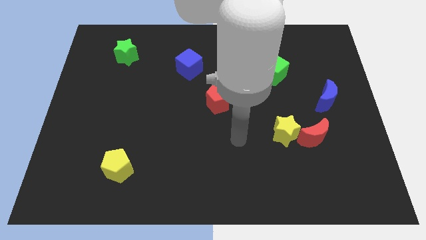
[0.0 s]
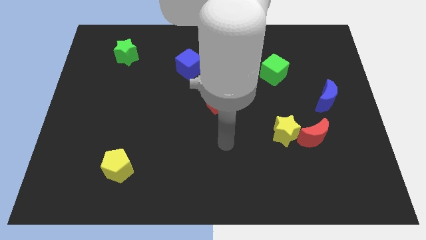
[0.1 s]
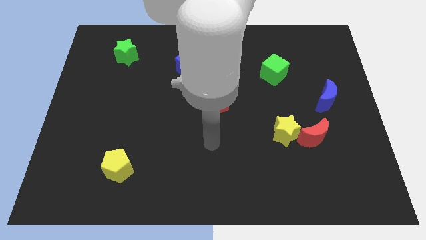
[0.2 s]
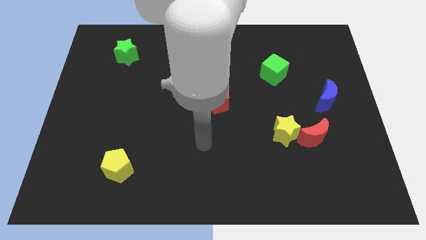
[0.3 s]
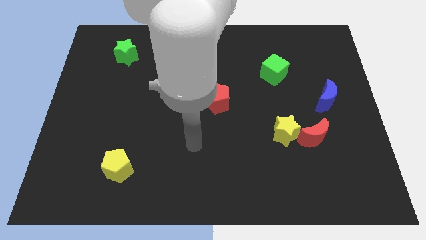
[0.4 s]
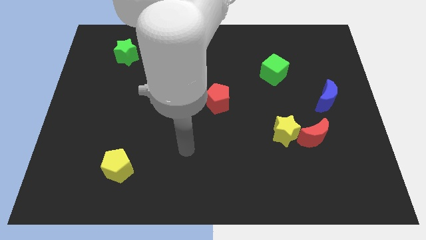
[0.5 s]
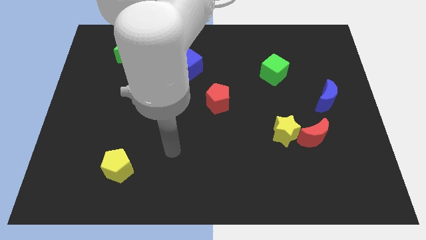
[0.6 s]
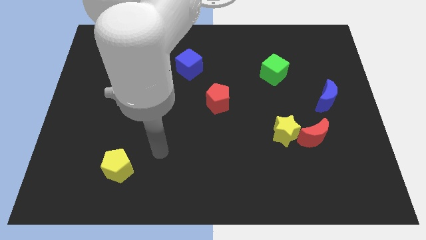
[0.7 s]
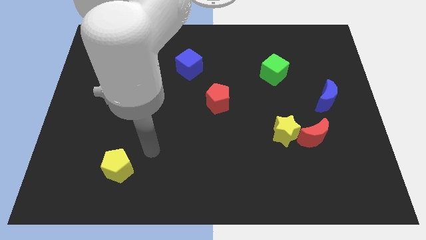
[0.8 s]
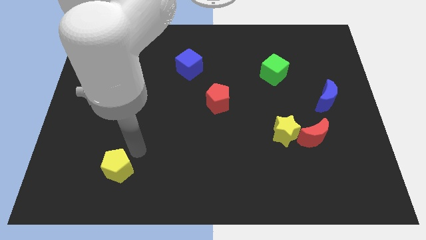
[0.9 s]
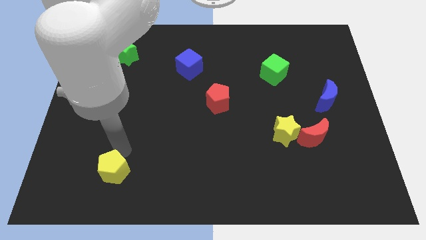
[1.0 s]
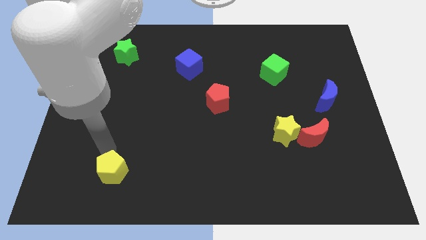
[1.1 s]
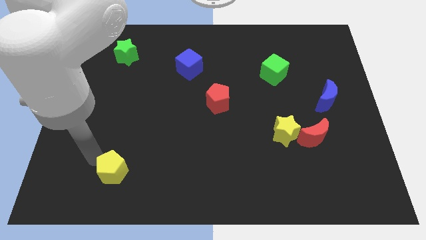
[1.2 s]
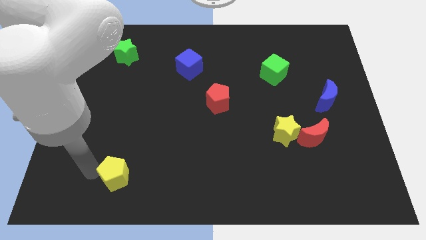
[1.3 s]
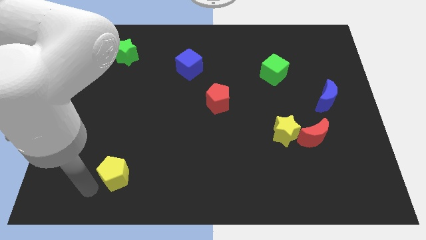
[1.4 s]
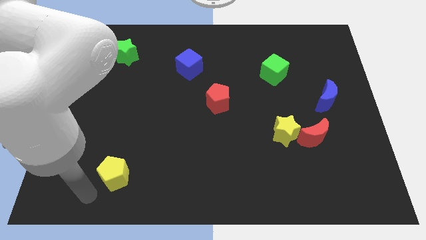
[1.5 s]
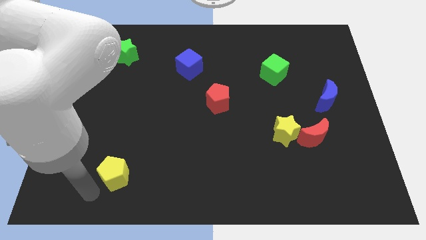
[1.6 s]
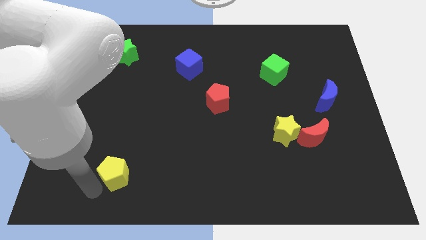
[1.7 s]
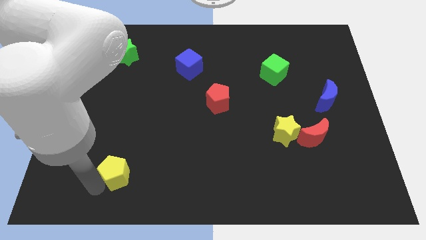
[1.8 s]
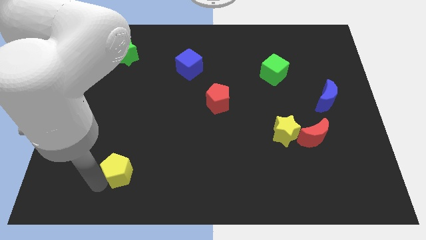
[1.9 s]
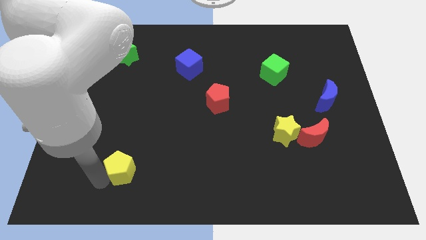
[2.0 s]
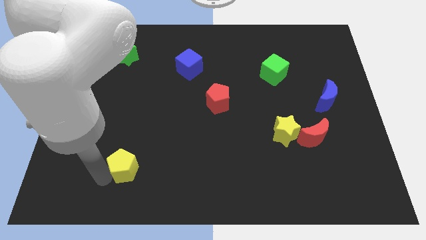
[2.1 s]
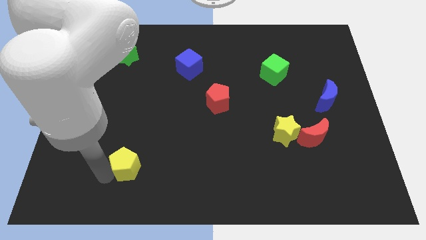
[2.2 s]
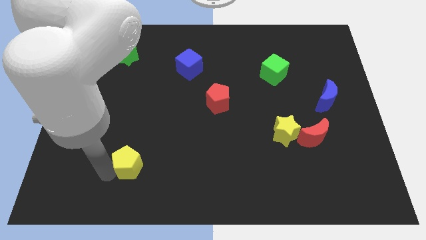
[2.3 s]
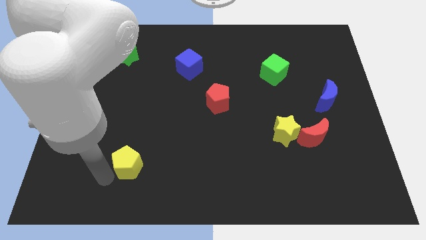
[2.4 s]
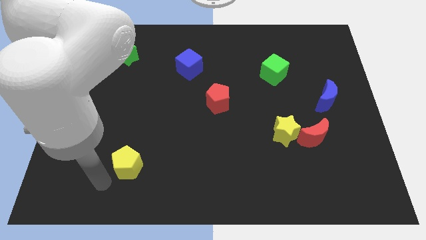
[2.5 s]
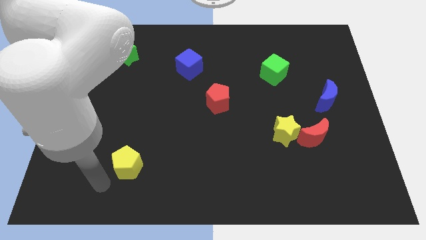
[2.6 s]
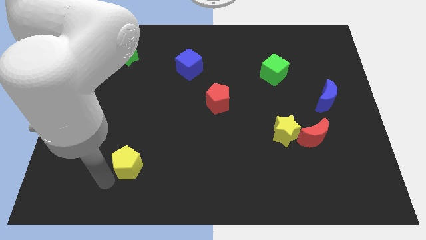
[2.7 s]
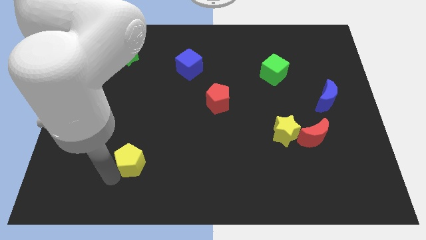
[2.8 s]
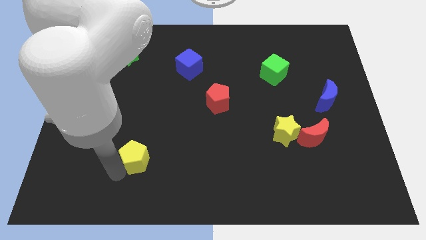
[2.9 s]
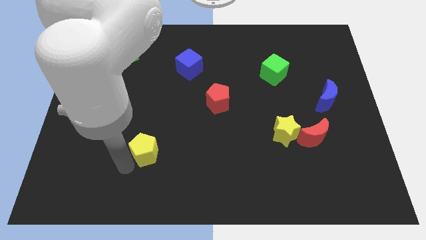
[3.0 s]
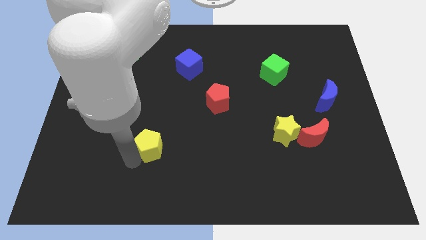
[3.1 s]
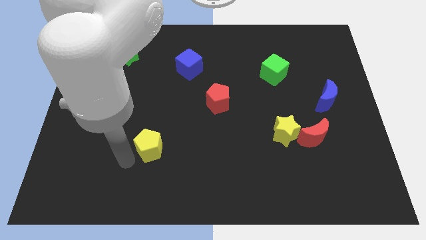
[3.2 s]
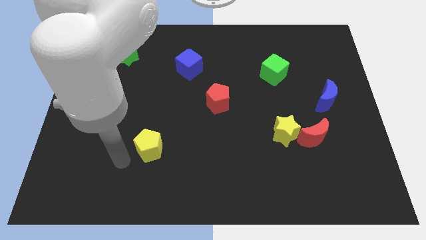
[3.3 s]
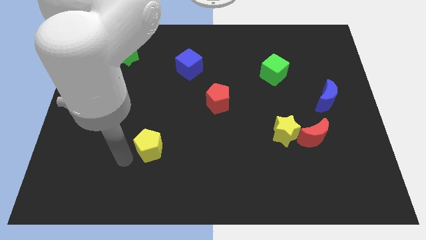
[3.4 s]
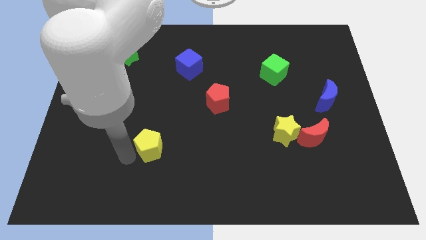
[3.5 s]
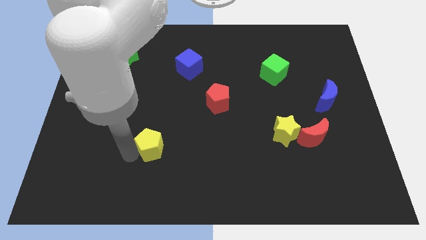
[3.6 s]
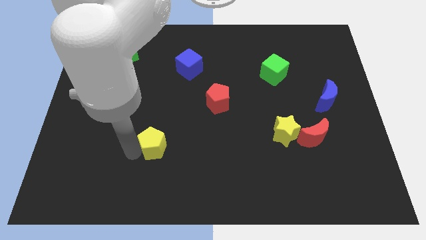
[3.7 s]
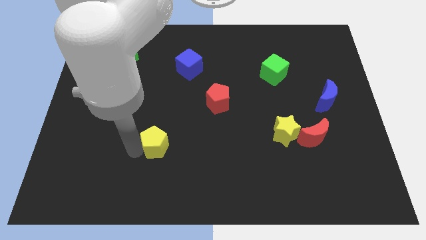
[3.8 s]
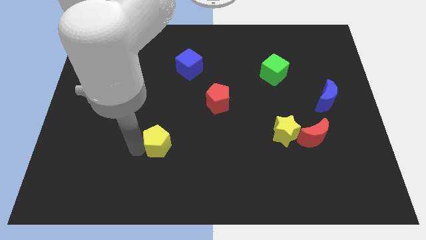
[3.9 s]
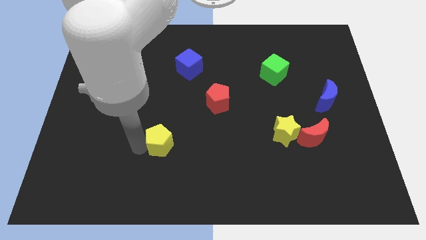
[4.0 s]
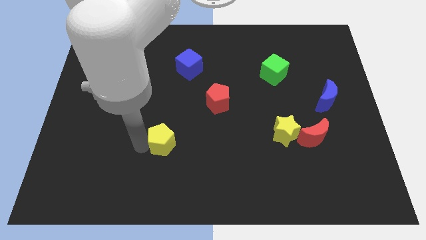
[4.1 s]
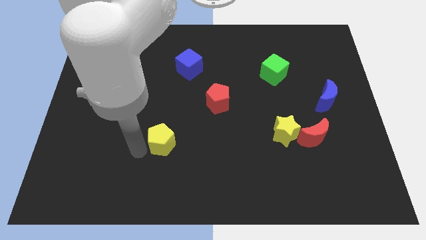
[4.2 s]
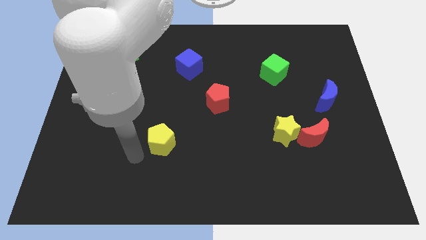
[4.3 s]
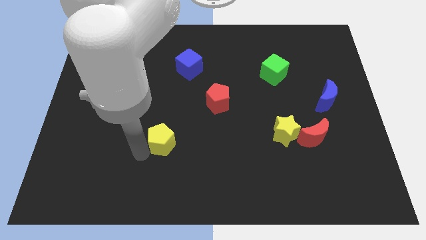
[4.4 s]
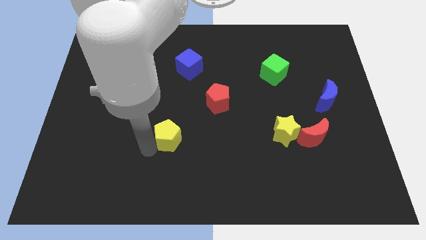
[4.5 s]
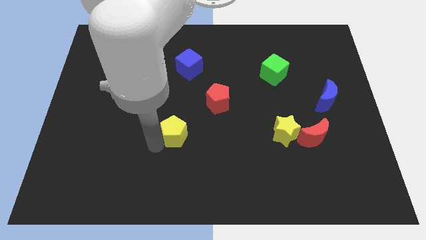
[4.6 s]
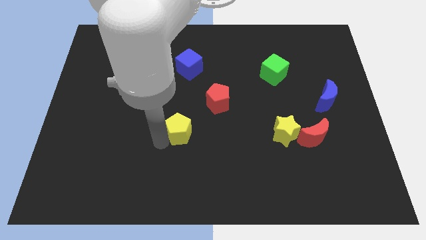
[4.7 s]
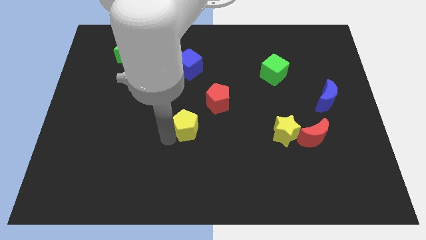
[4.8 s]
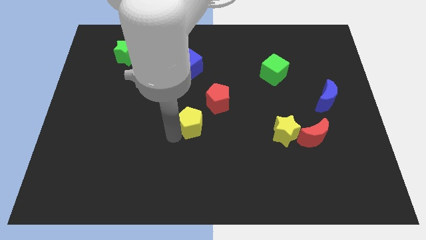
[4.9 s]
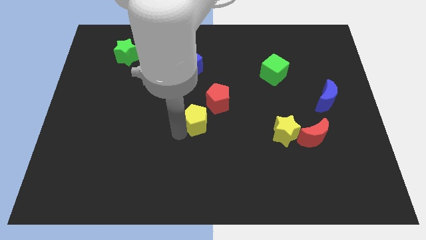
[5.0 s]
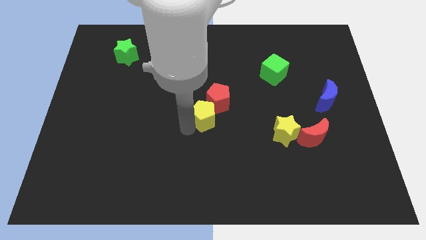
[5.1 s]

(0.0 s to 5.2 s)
put the yellow pentagon to the red pentagon

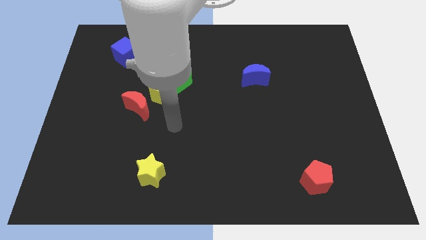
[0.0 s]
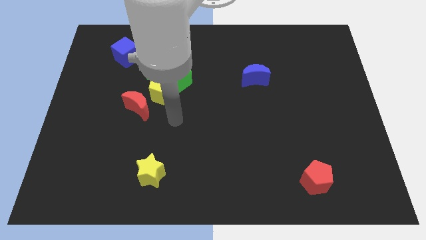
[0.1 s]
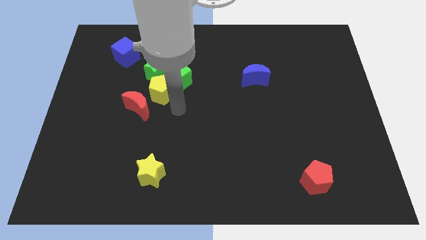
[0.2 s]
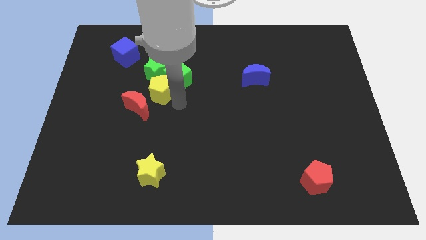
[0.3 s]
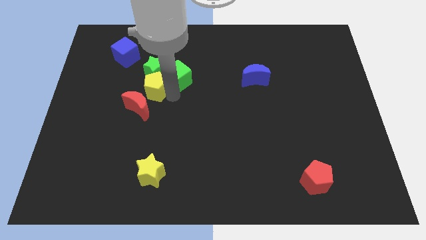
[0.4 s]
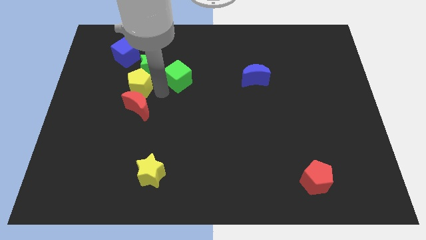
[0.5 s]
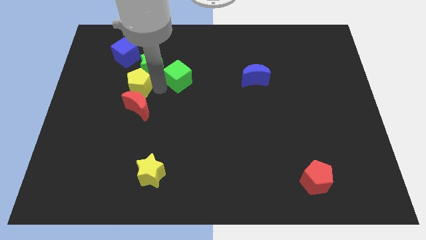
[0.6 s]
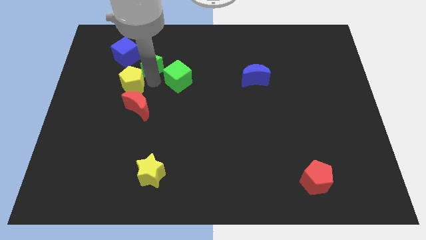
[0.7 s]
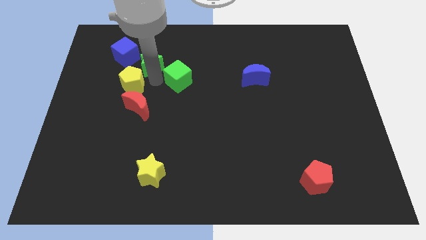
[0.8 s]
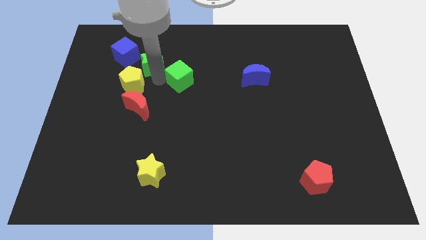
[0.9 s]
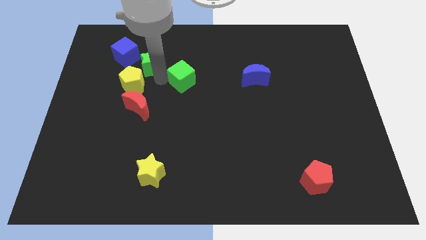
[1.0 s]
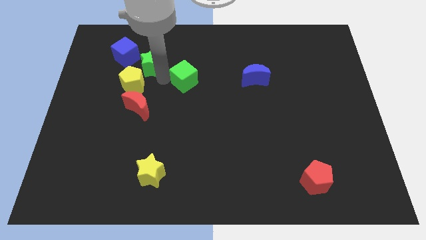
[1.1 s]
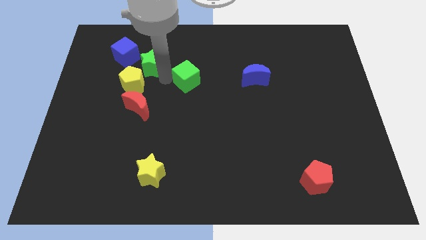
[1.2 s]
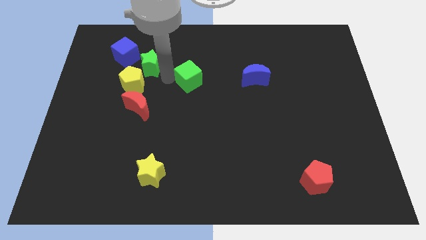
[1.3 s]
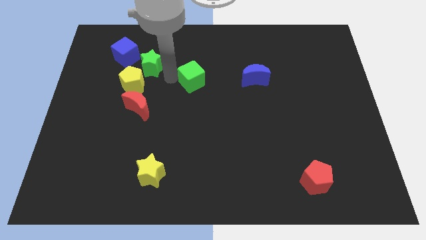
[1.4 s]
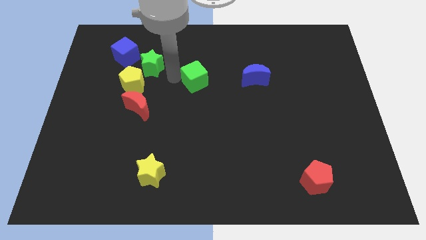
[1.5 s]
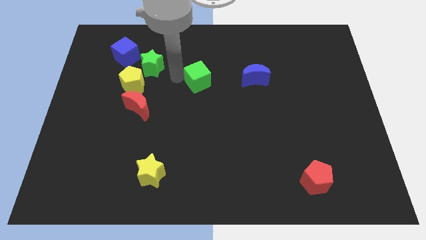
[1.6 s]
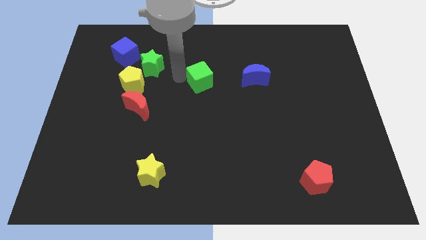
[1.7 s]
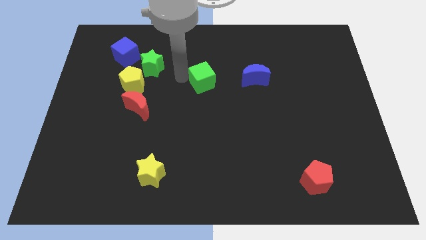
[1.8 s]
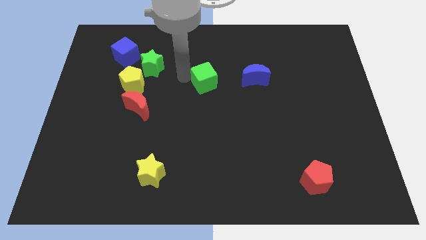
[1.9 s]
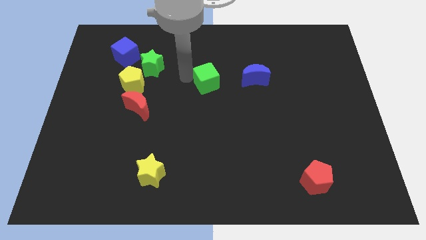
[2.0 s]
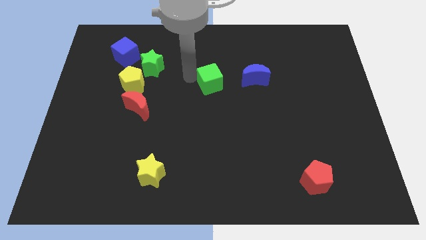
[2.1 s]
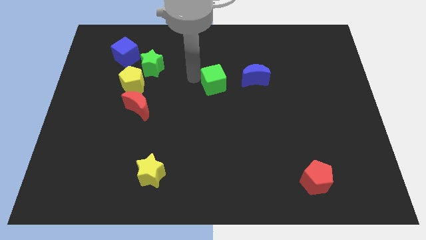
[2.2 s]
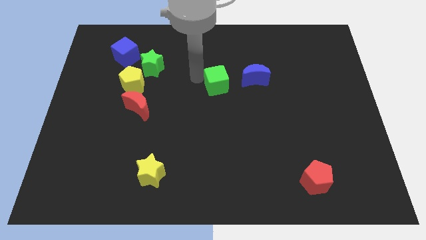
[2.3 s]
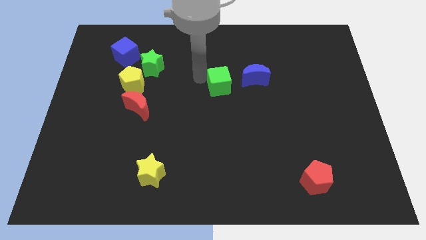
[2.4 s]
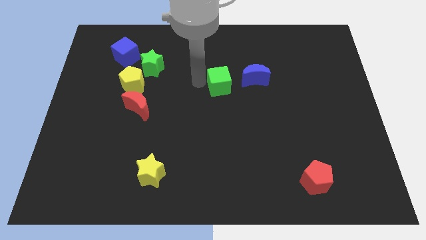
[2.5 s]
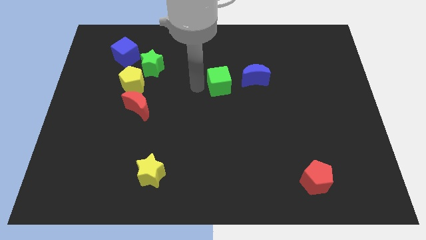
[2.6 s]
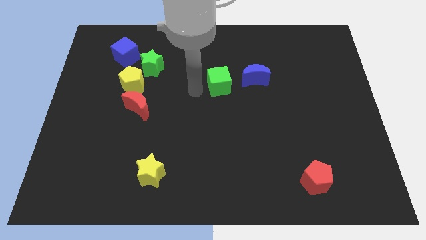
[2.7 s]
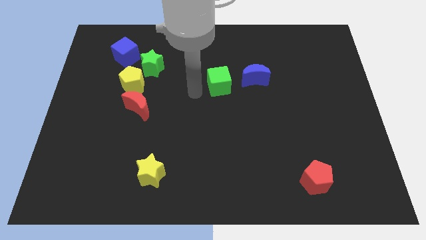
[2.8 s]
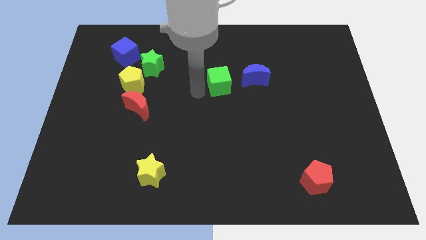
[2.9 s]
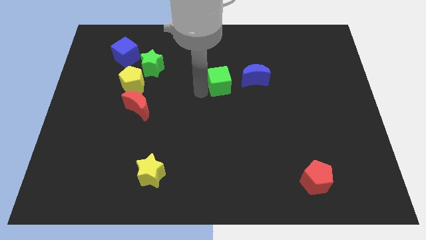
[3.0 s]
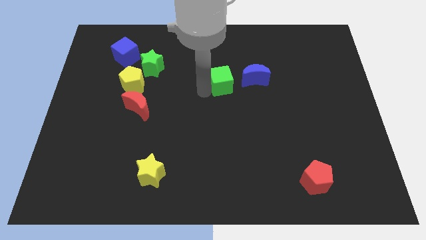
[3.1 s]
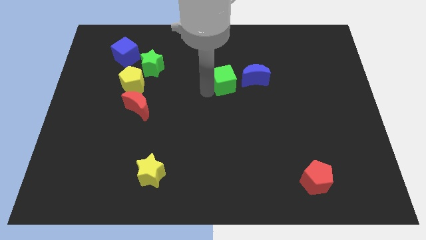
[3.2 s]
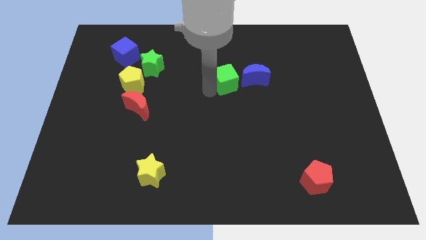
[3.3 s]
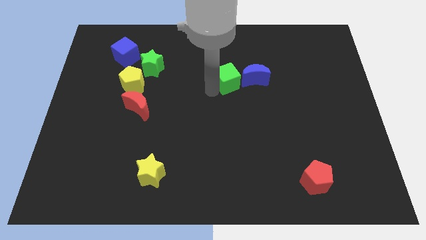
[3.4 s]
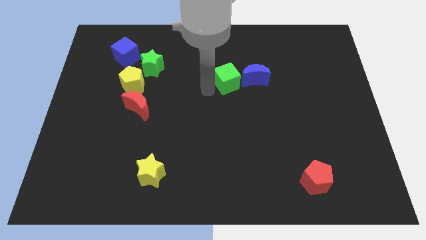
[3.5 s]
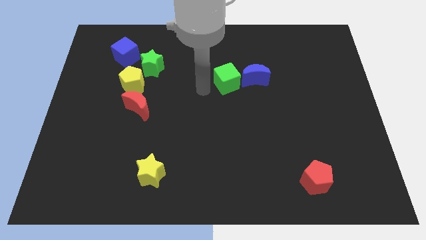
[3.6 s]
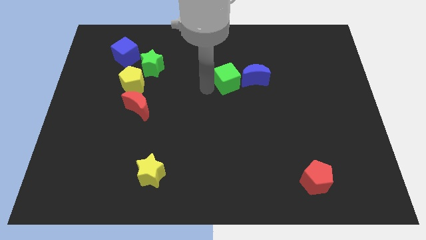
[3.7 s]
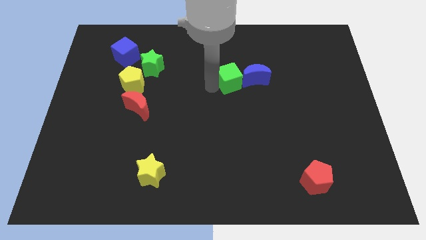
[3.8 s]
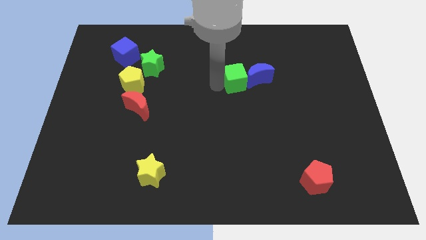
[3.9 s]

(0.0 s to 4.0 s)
move the green cube towards the blue moon
